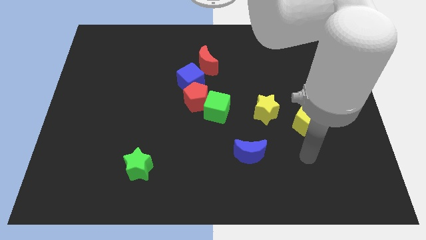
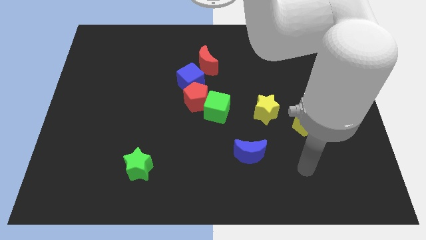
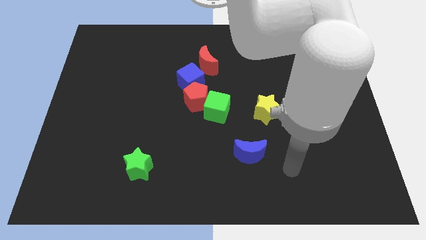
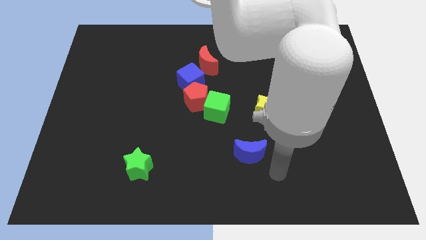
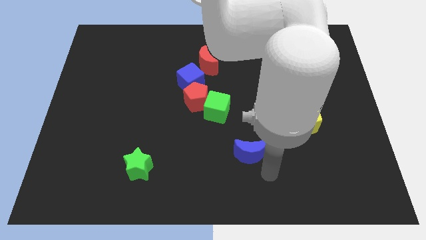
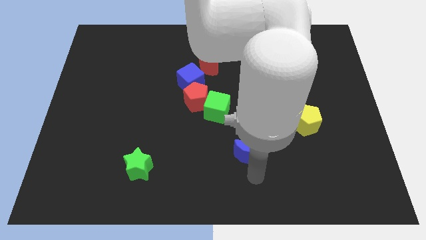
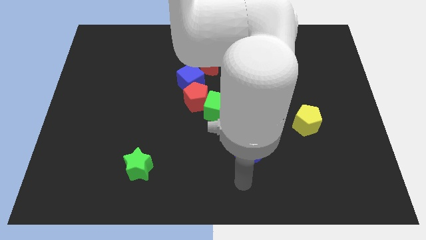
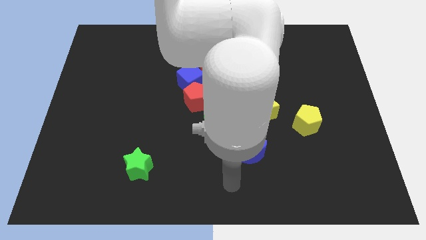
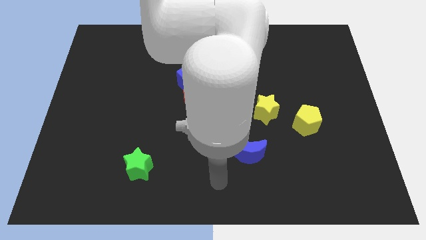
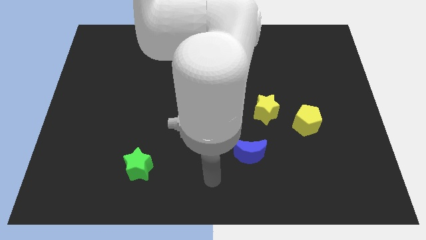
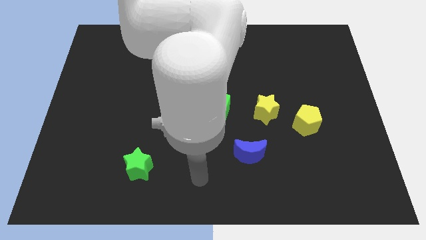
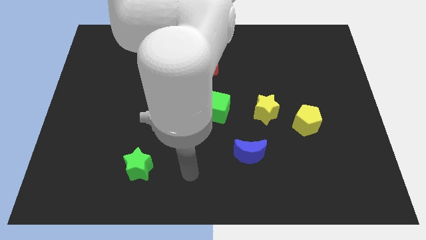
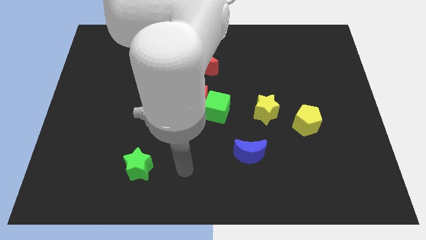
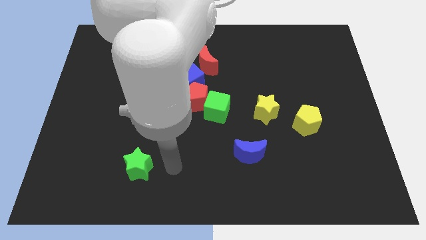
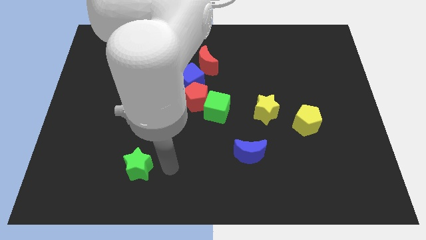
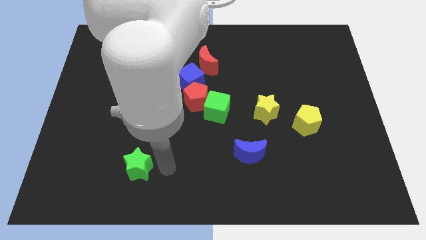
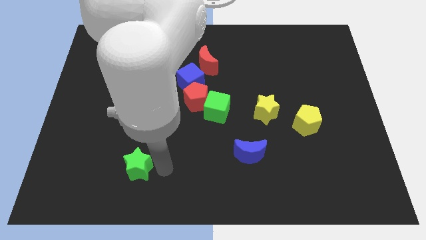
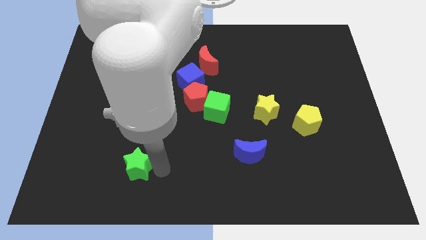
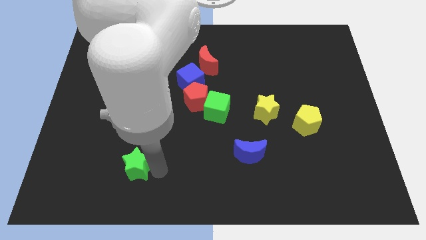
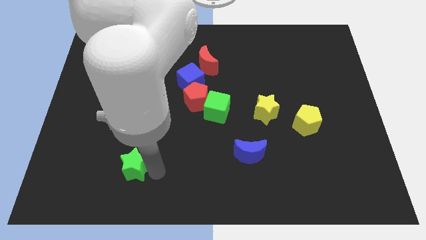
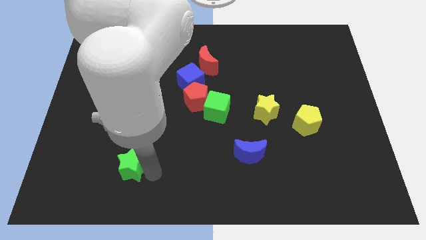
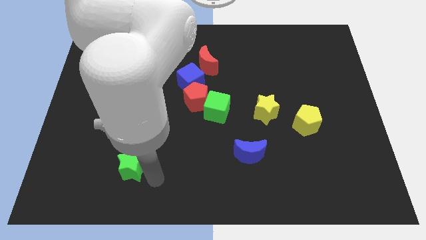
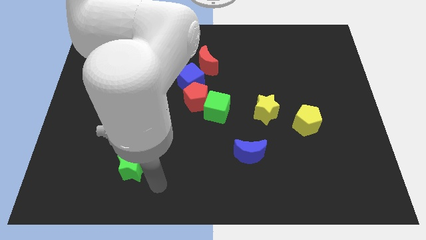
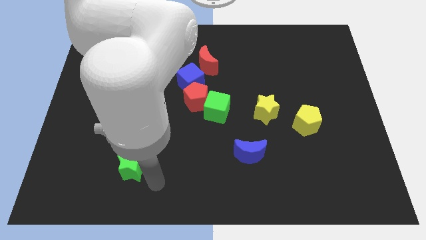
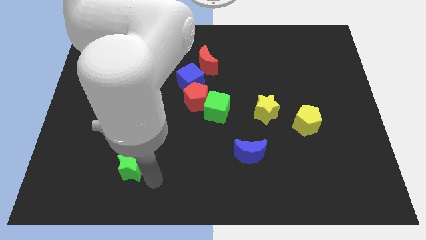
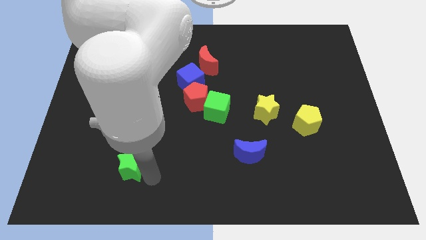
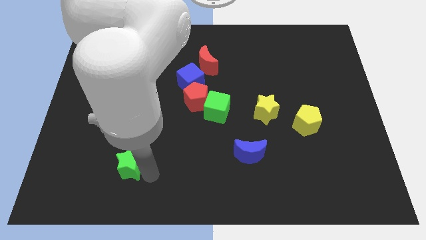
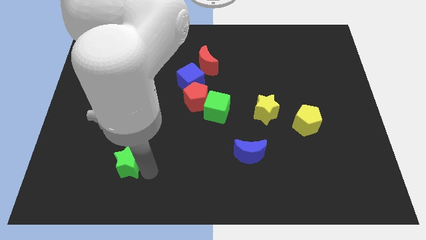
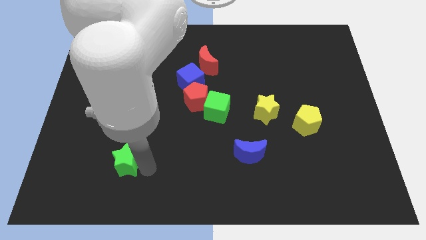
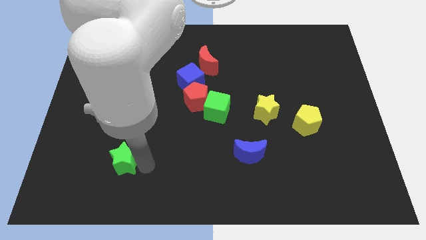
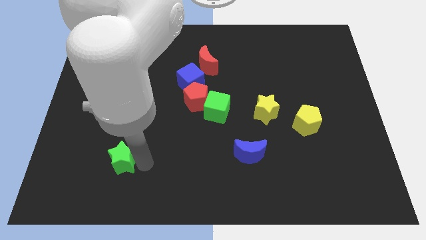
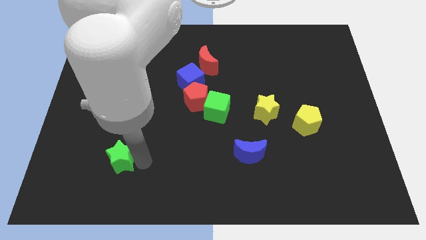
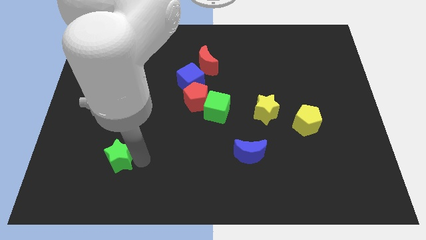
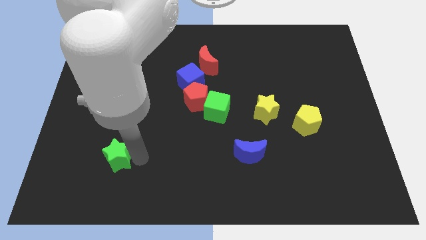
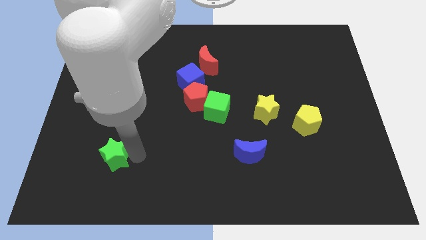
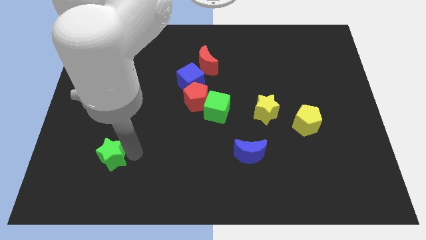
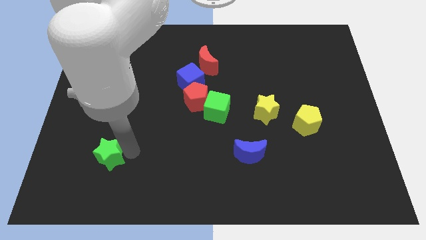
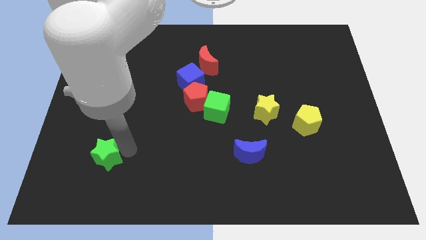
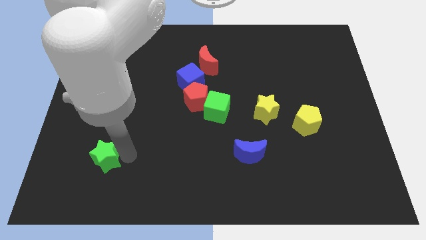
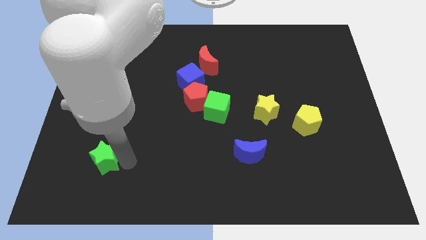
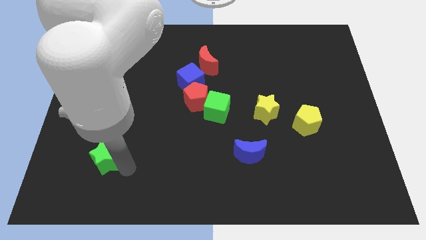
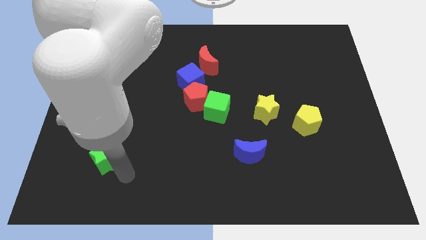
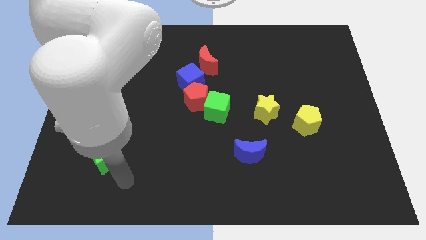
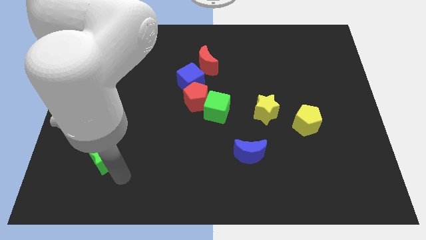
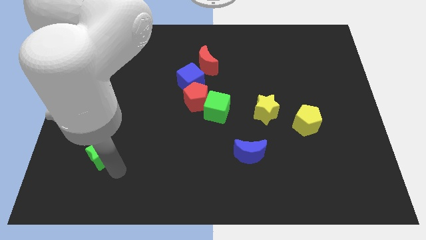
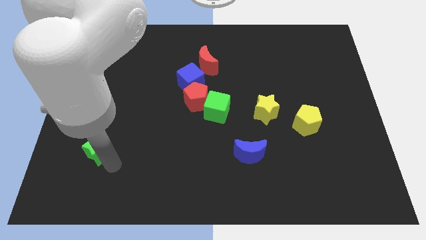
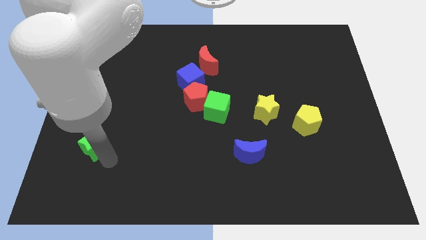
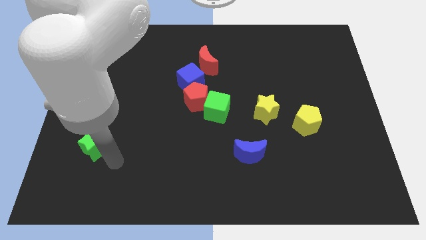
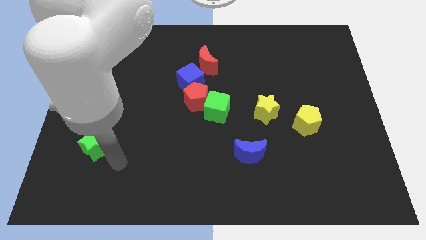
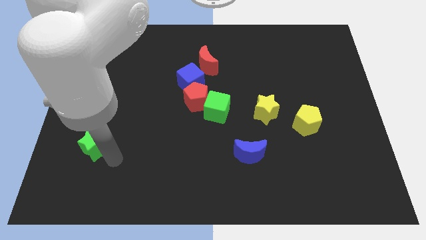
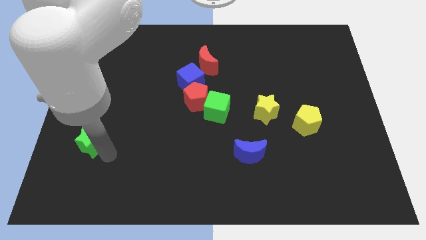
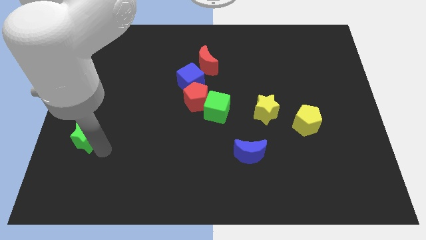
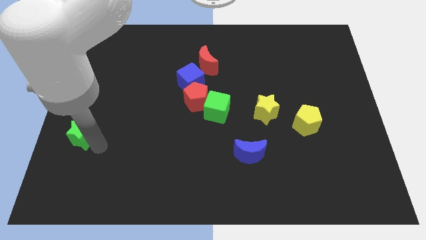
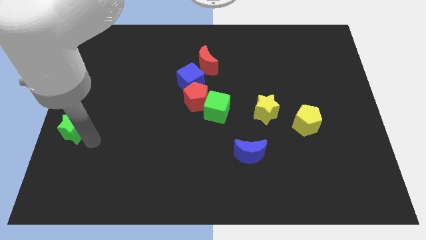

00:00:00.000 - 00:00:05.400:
move the green star to the left side of the board

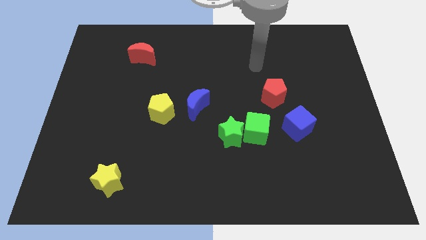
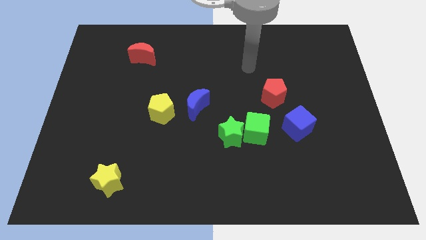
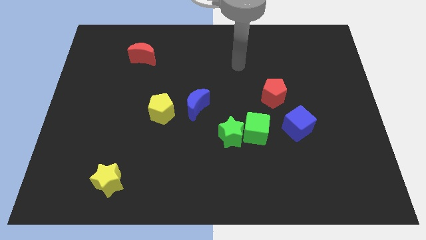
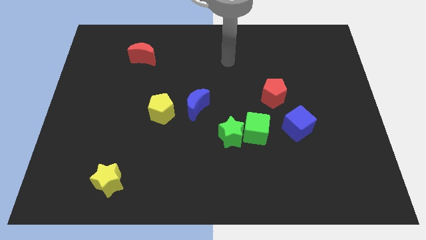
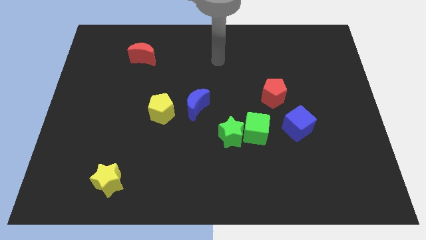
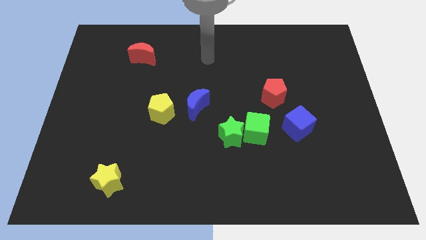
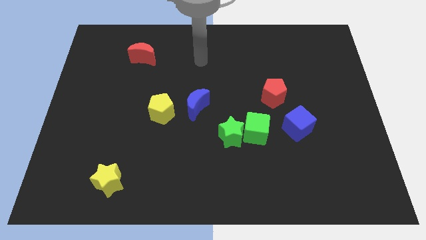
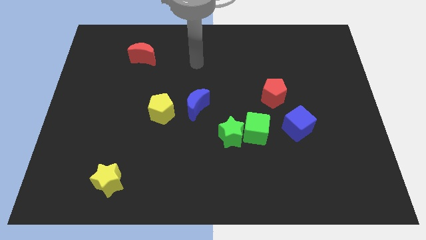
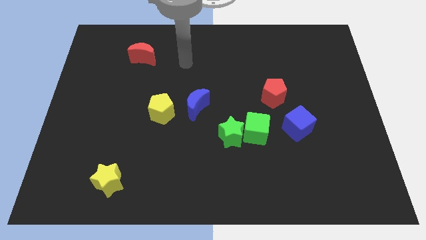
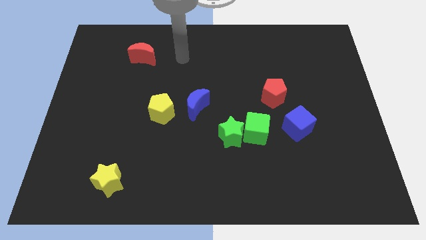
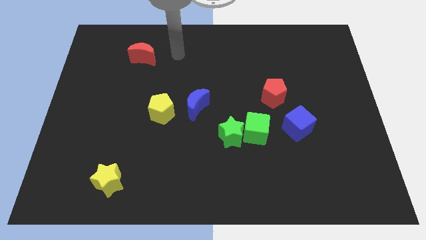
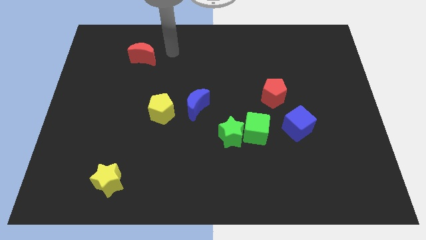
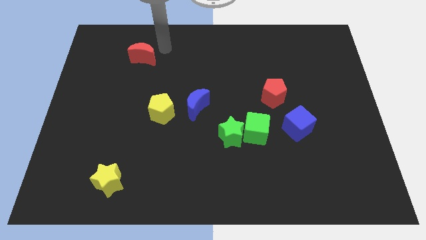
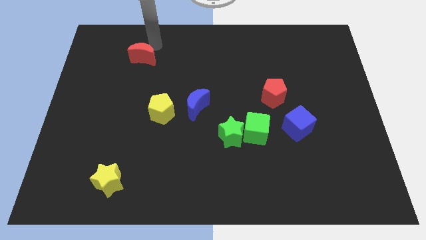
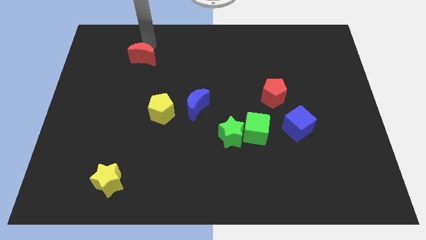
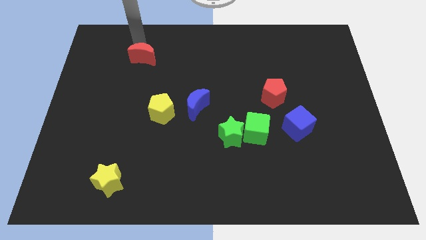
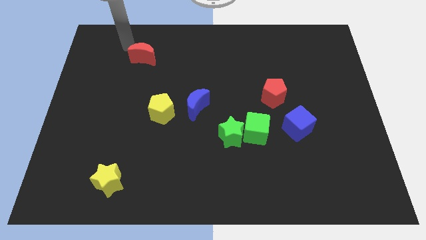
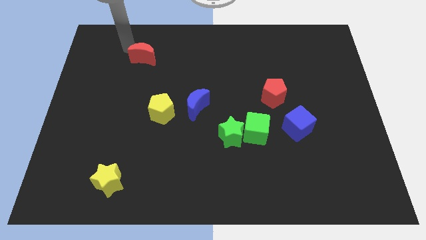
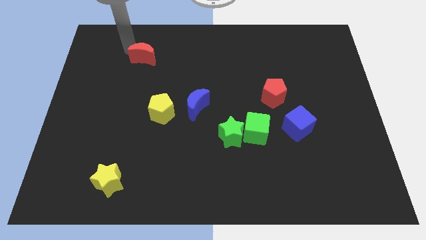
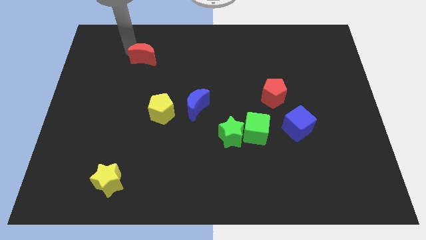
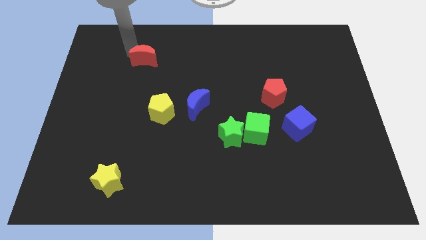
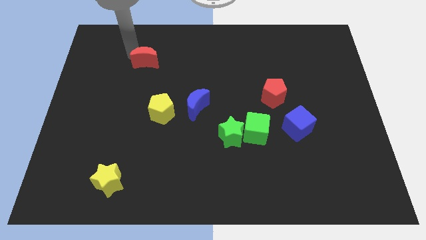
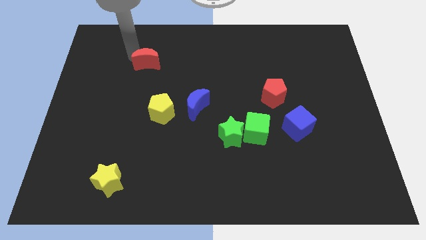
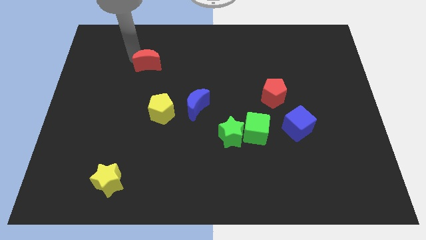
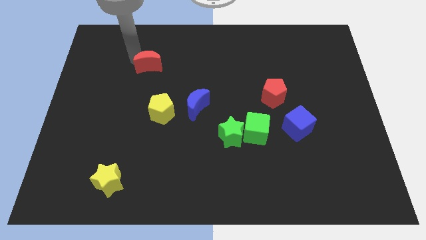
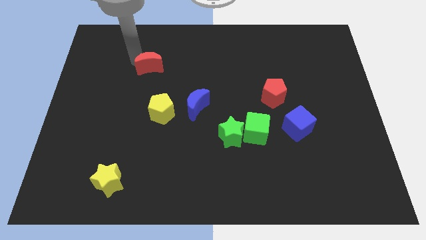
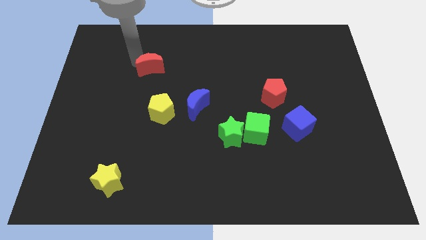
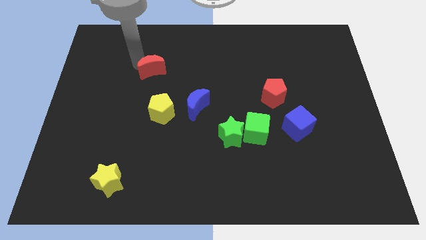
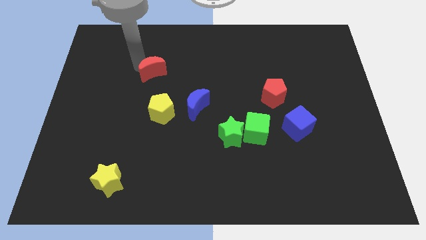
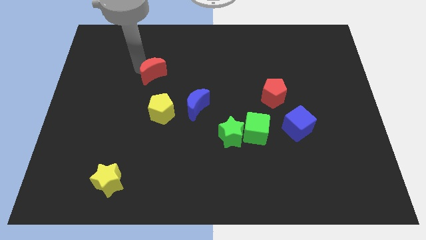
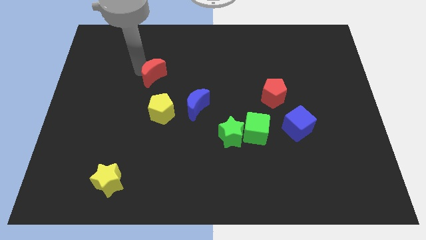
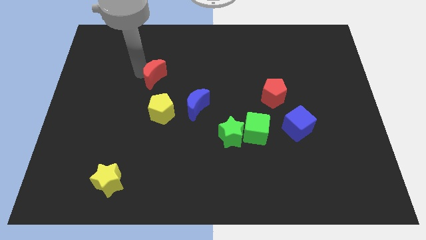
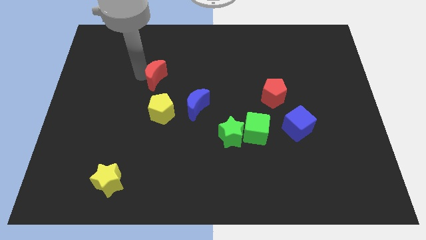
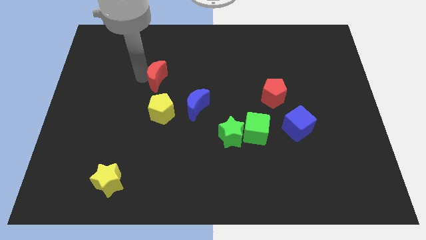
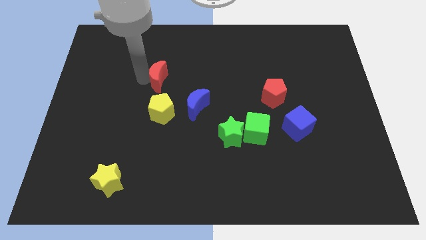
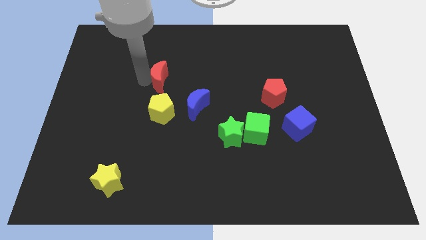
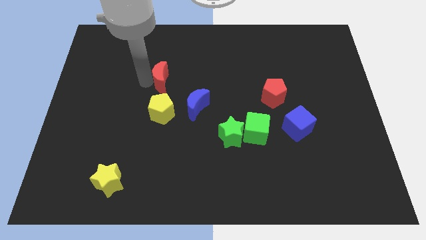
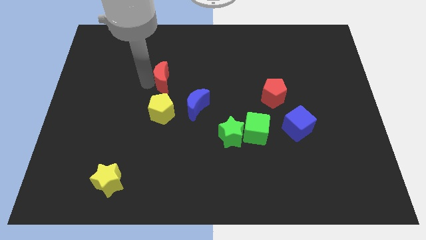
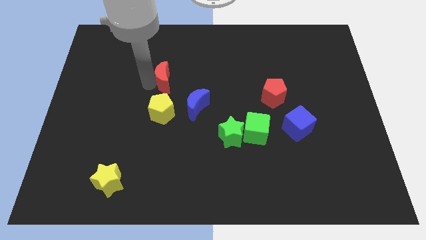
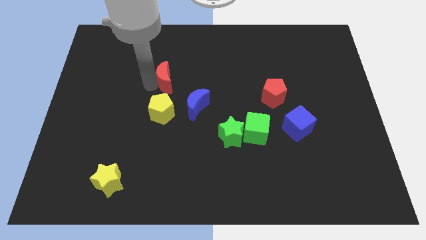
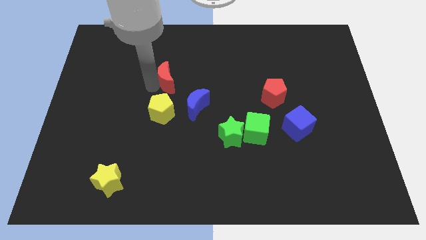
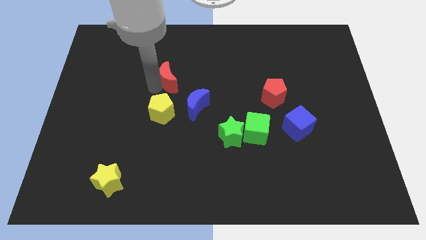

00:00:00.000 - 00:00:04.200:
move the red moon to the middle
